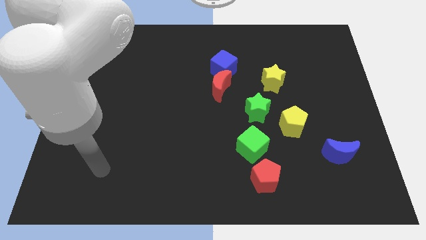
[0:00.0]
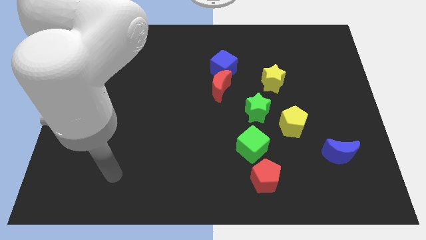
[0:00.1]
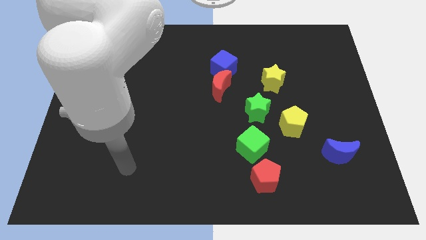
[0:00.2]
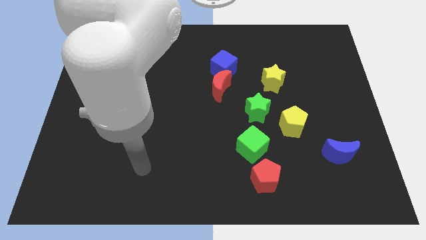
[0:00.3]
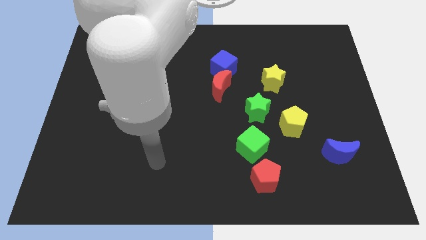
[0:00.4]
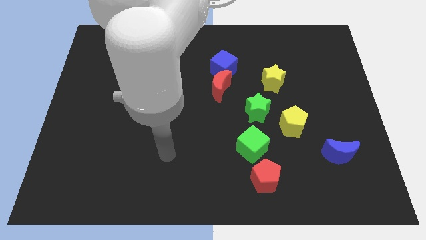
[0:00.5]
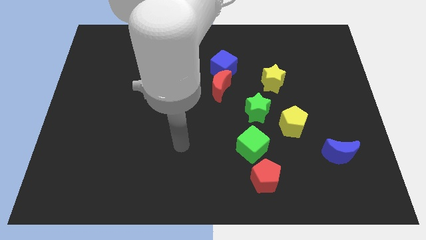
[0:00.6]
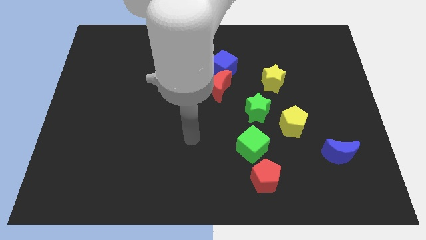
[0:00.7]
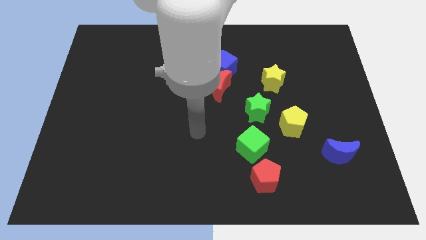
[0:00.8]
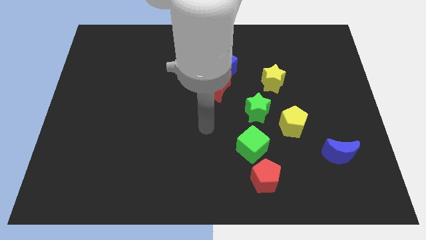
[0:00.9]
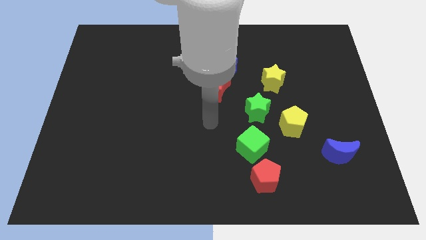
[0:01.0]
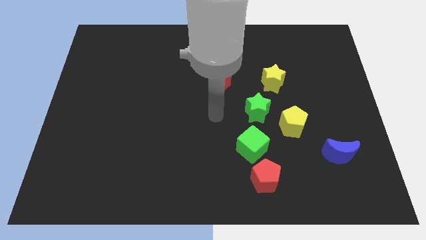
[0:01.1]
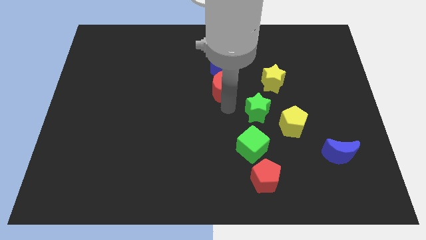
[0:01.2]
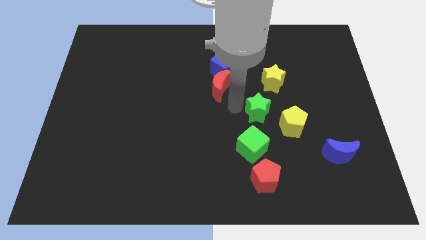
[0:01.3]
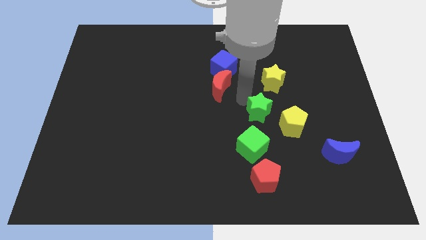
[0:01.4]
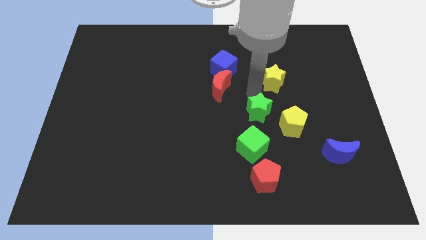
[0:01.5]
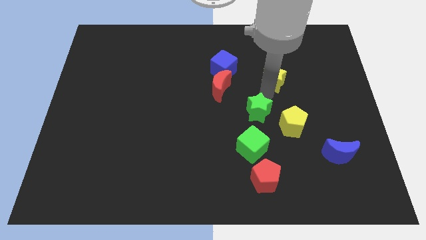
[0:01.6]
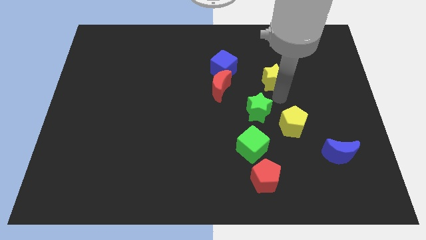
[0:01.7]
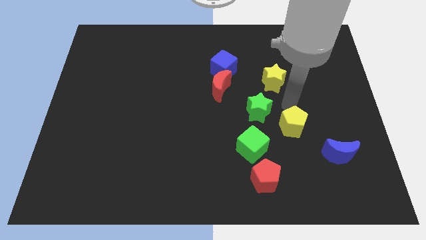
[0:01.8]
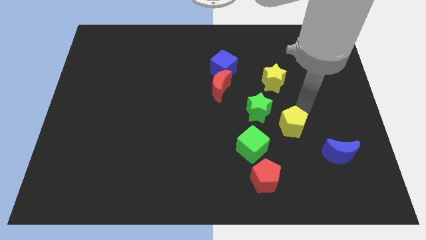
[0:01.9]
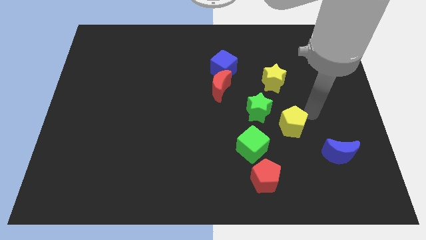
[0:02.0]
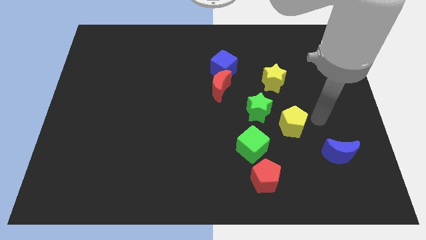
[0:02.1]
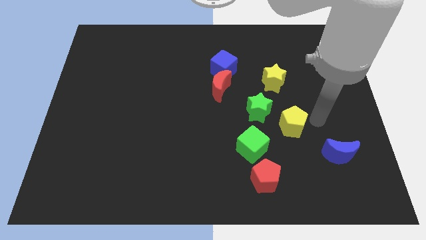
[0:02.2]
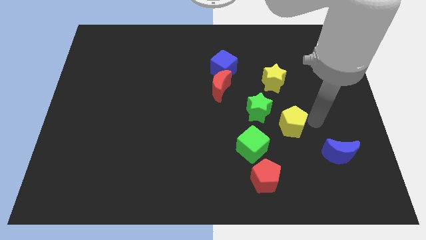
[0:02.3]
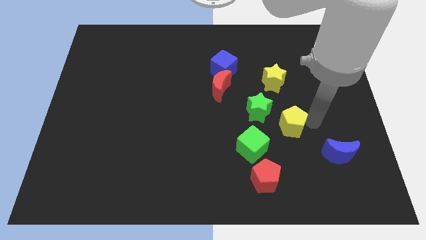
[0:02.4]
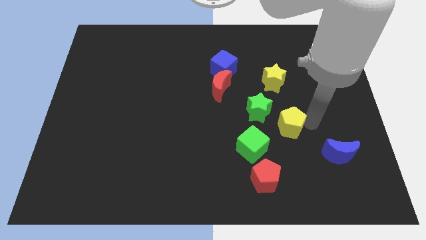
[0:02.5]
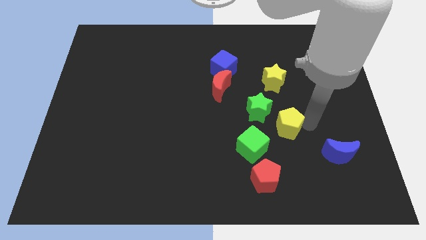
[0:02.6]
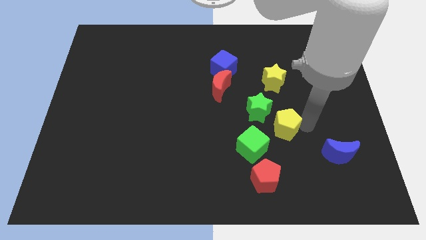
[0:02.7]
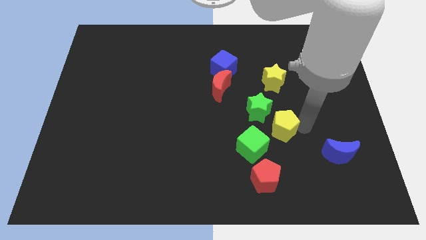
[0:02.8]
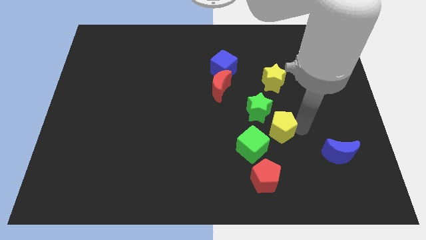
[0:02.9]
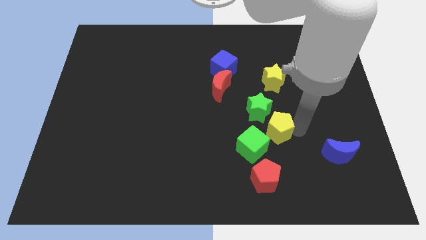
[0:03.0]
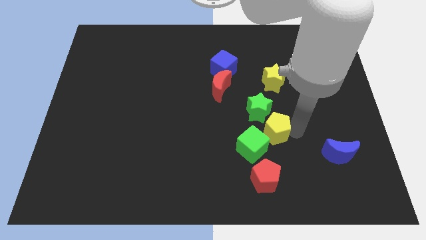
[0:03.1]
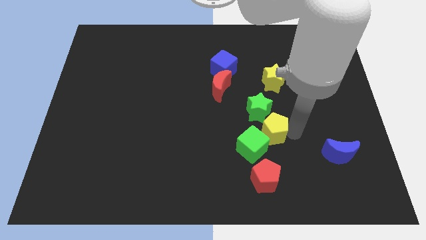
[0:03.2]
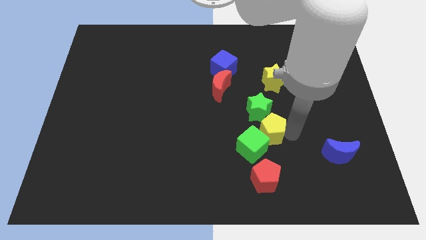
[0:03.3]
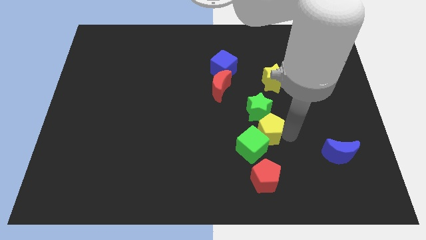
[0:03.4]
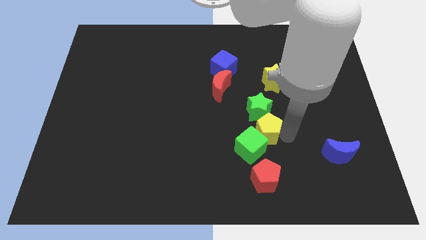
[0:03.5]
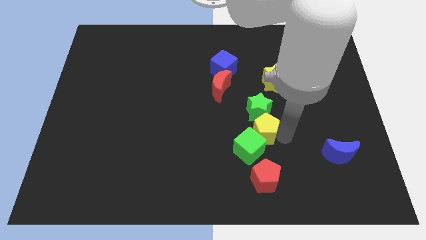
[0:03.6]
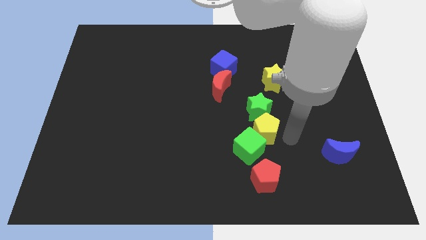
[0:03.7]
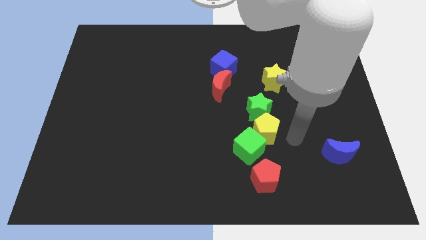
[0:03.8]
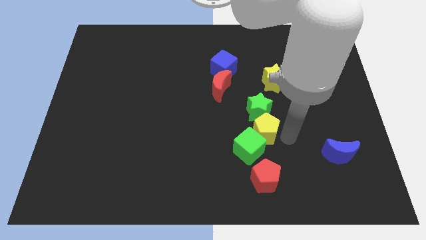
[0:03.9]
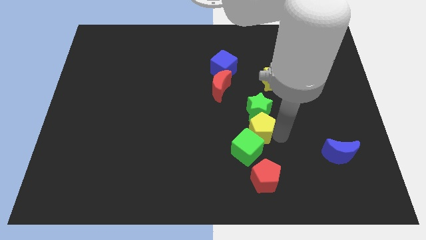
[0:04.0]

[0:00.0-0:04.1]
push the yellow pentagon slightly to the left

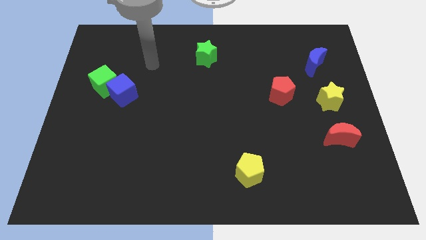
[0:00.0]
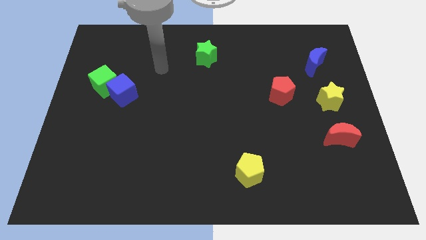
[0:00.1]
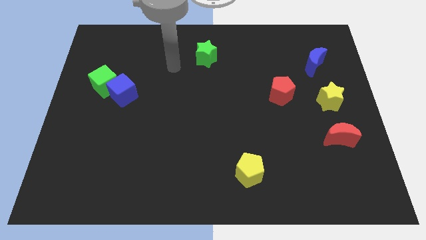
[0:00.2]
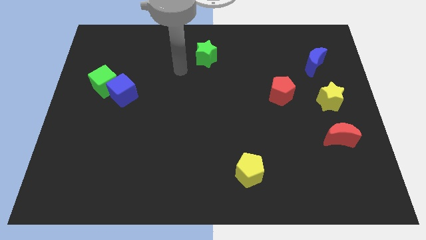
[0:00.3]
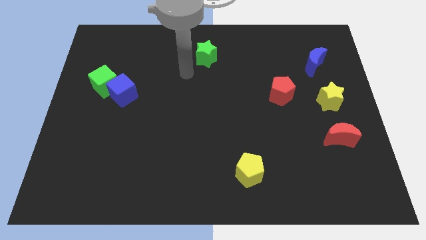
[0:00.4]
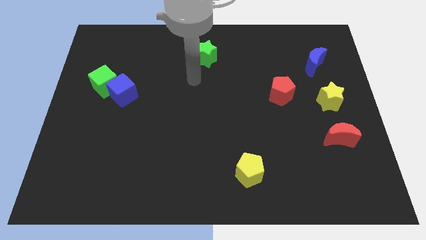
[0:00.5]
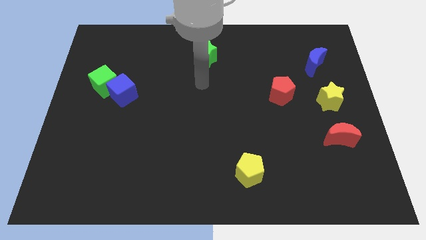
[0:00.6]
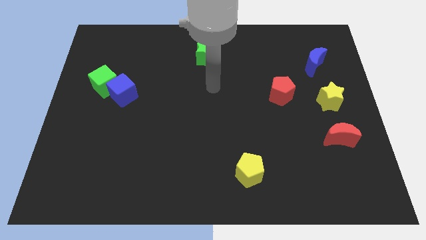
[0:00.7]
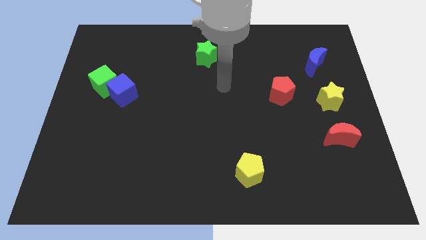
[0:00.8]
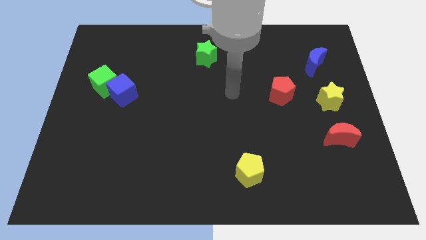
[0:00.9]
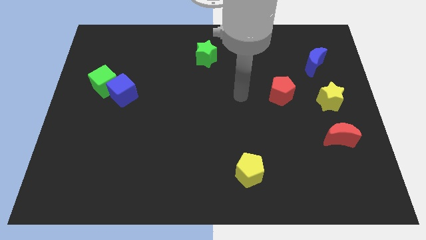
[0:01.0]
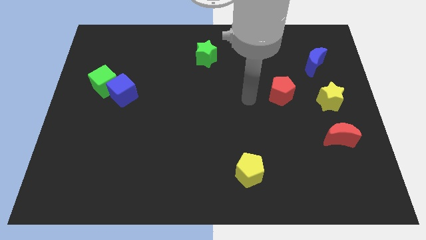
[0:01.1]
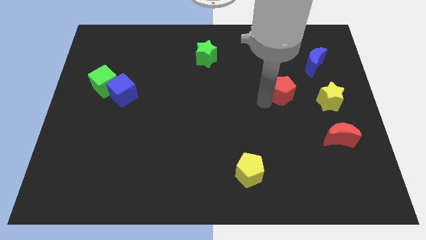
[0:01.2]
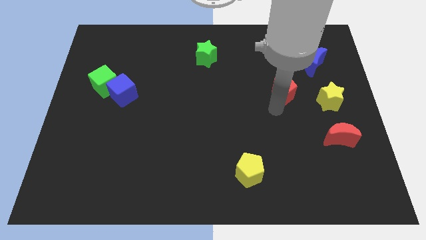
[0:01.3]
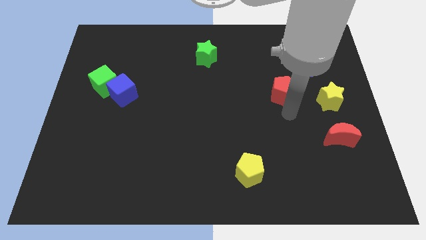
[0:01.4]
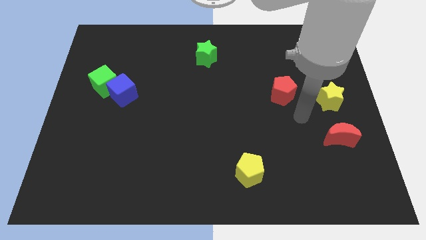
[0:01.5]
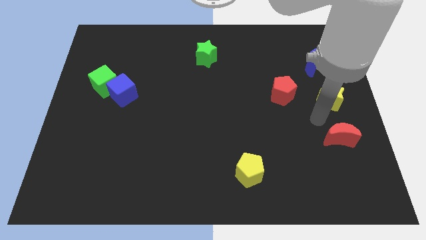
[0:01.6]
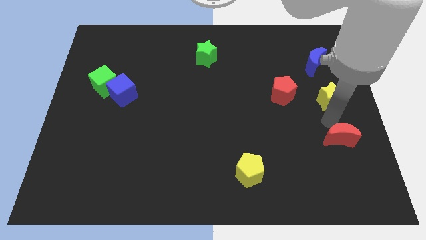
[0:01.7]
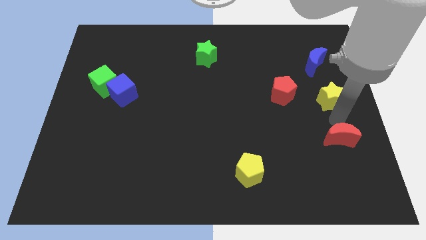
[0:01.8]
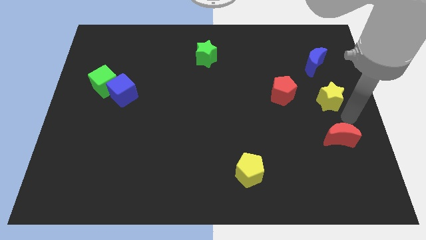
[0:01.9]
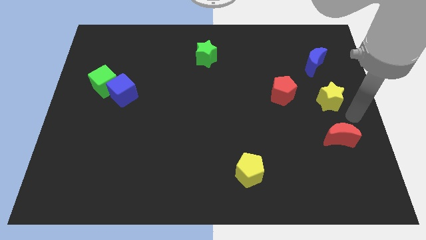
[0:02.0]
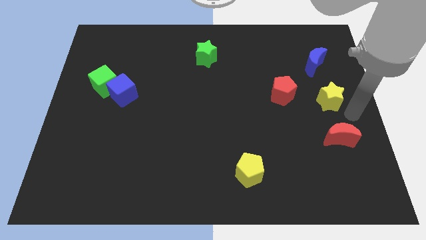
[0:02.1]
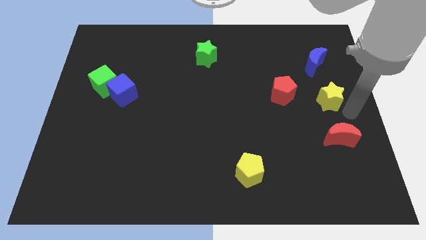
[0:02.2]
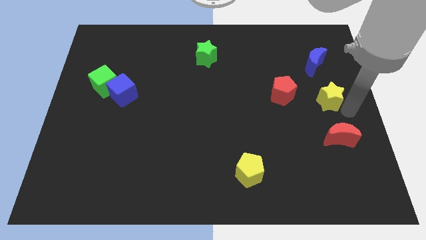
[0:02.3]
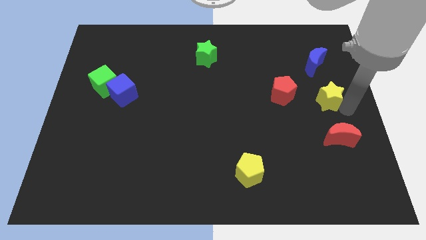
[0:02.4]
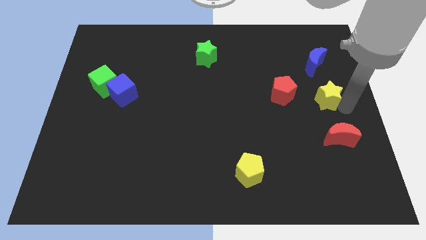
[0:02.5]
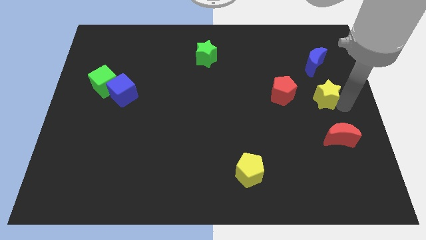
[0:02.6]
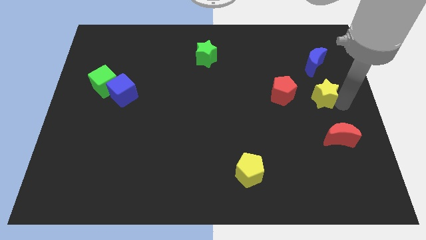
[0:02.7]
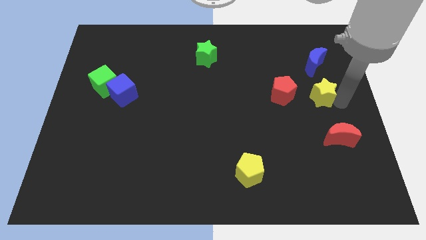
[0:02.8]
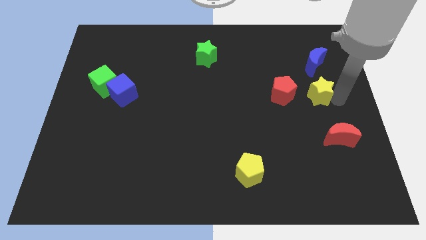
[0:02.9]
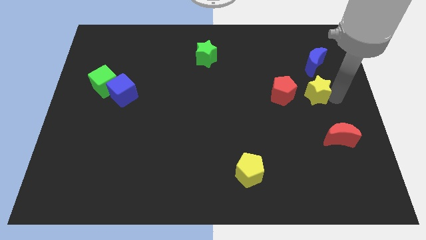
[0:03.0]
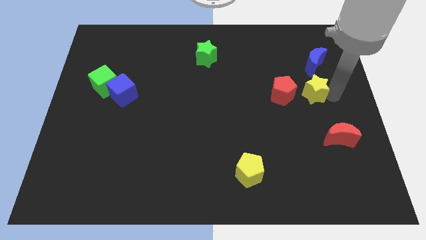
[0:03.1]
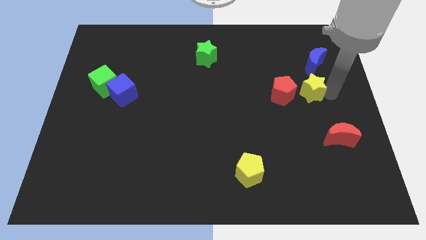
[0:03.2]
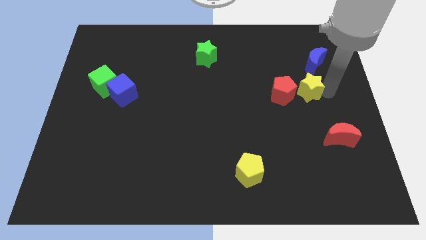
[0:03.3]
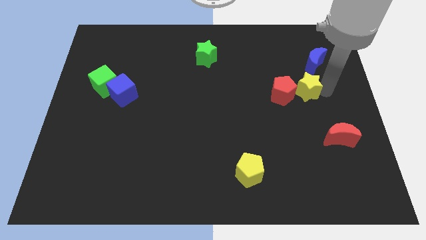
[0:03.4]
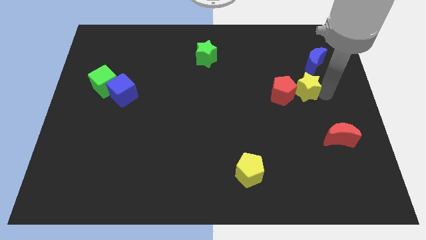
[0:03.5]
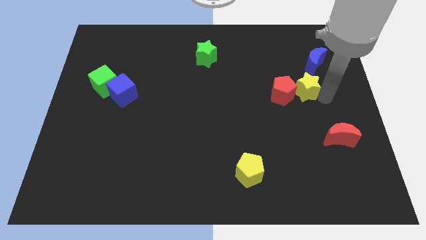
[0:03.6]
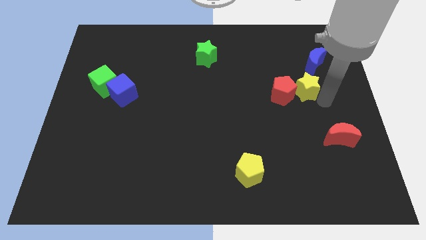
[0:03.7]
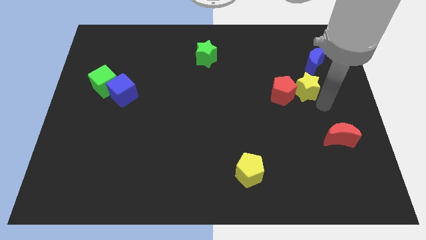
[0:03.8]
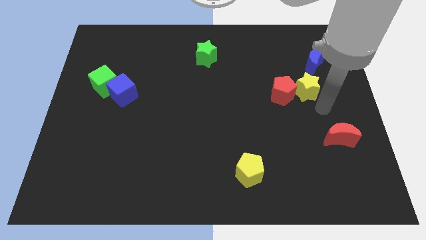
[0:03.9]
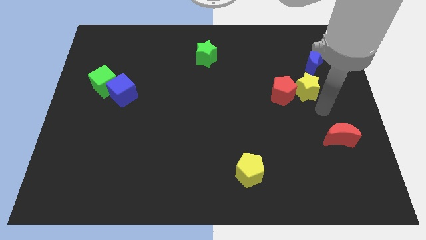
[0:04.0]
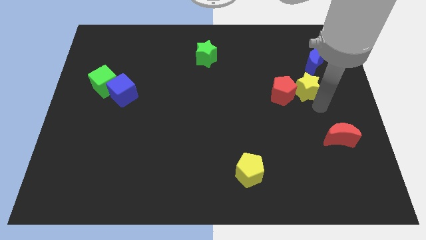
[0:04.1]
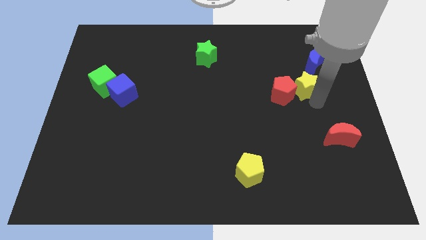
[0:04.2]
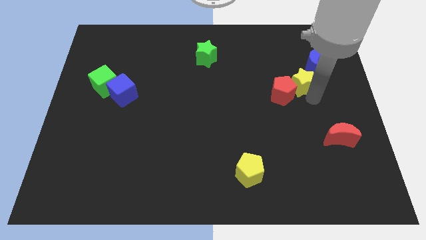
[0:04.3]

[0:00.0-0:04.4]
slide the yellow star a bit up and to the left diagonally
